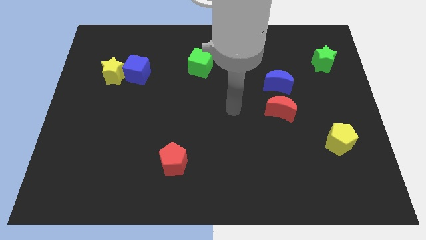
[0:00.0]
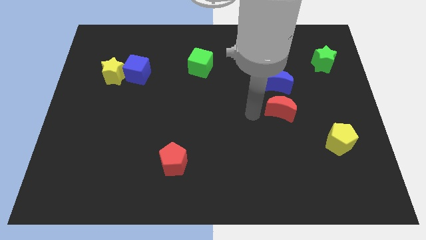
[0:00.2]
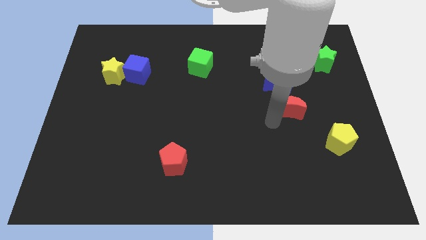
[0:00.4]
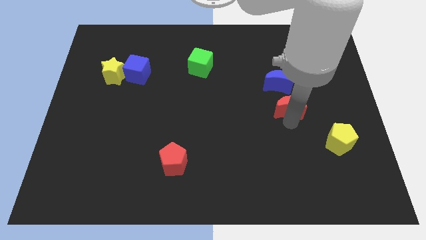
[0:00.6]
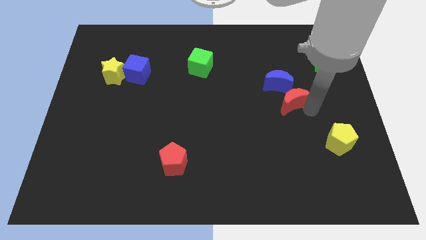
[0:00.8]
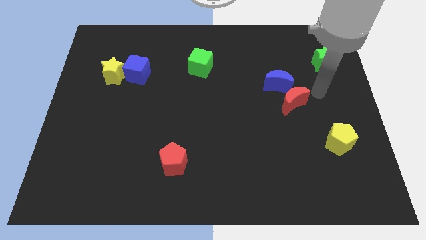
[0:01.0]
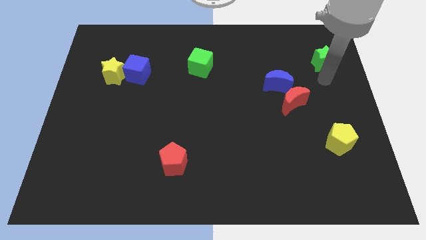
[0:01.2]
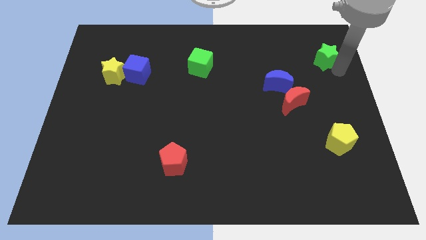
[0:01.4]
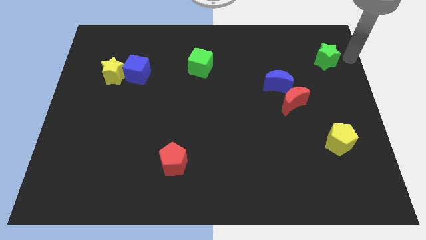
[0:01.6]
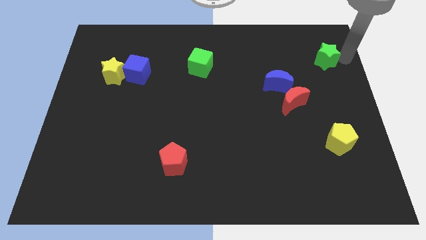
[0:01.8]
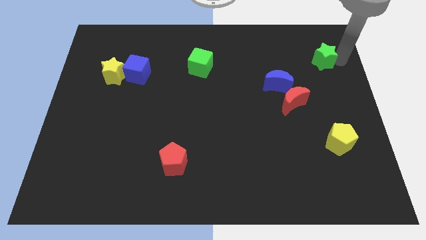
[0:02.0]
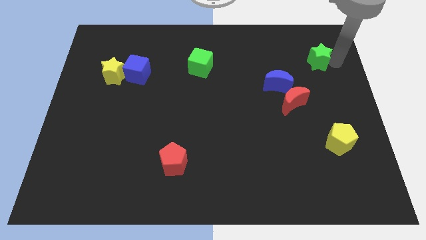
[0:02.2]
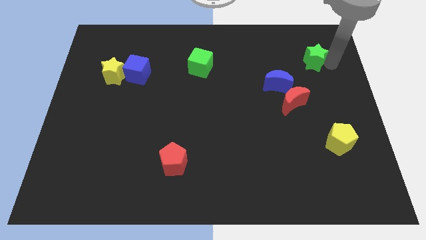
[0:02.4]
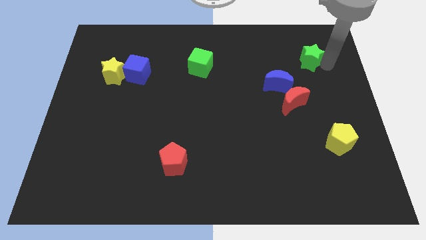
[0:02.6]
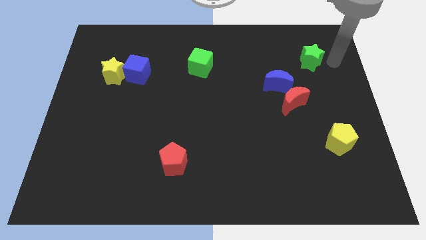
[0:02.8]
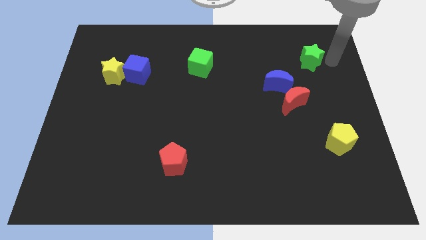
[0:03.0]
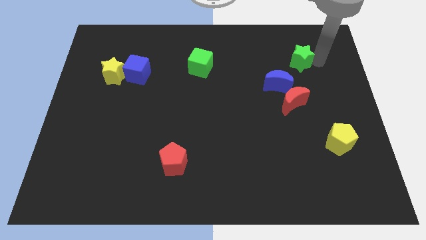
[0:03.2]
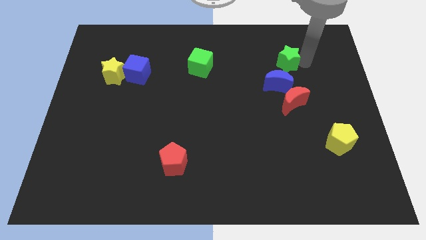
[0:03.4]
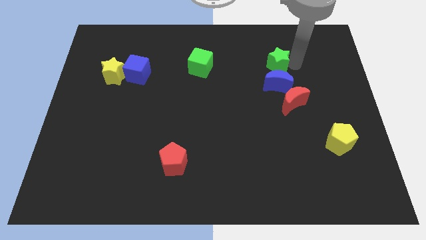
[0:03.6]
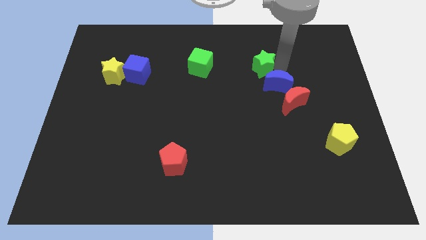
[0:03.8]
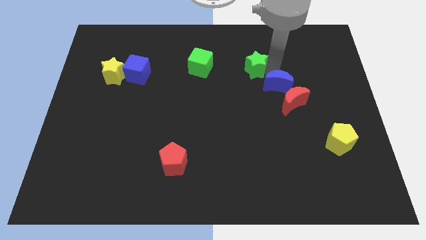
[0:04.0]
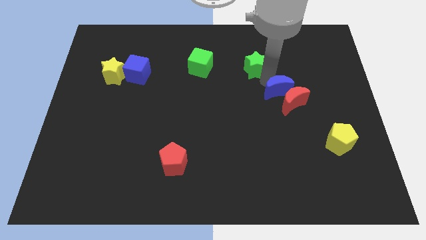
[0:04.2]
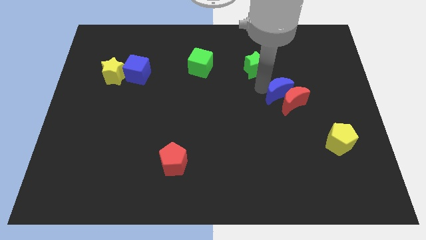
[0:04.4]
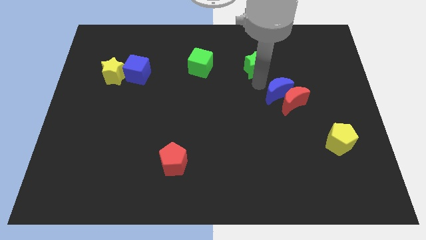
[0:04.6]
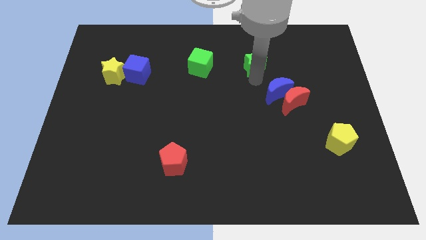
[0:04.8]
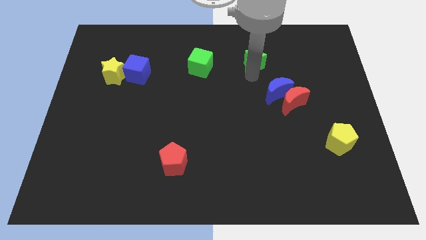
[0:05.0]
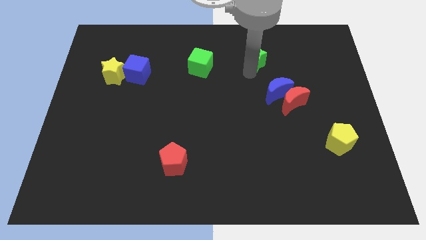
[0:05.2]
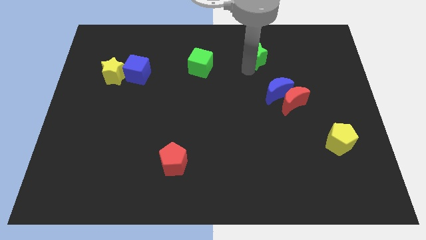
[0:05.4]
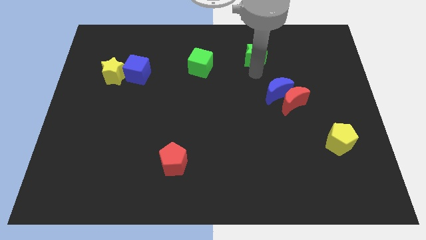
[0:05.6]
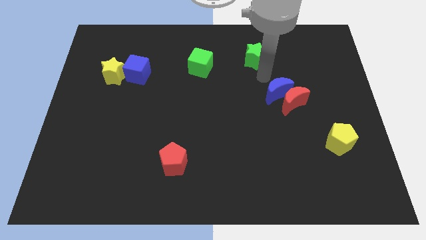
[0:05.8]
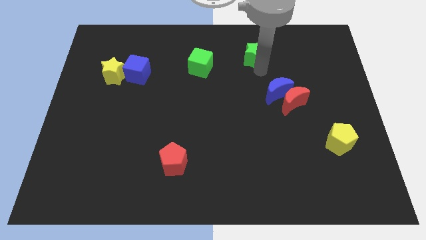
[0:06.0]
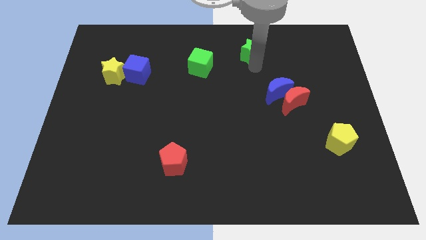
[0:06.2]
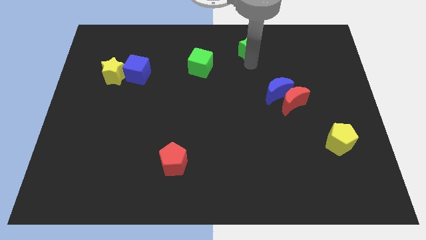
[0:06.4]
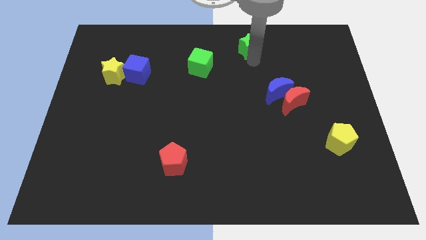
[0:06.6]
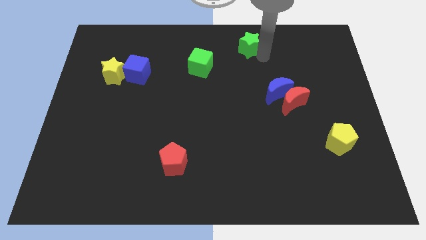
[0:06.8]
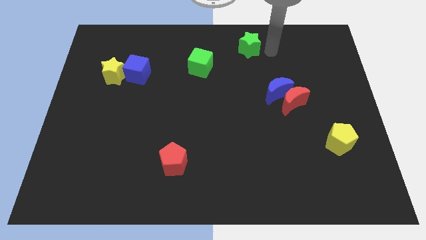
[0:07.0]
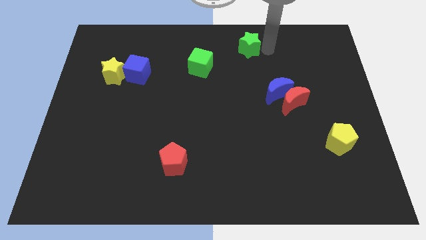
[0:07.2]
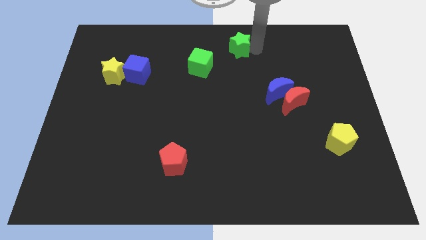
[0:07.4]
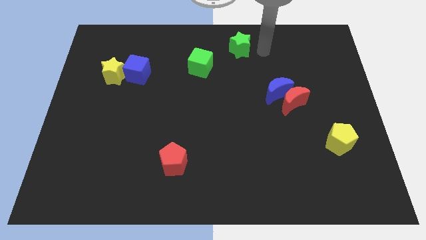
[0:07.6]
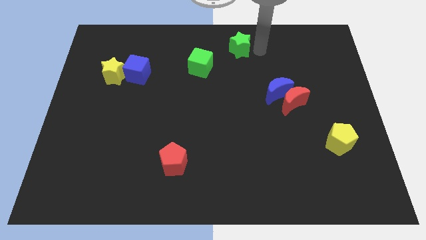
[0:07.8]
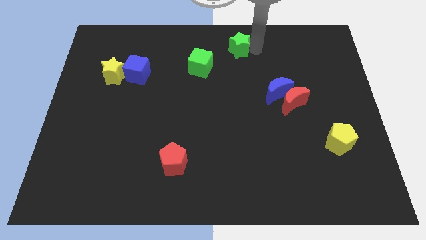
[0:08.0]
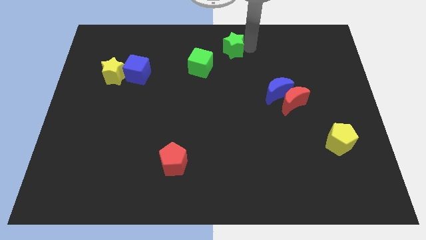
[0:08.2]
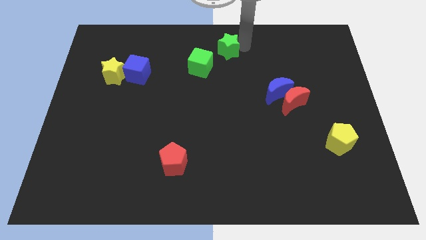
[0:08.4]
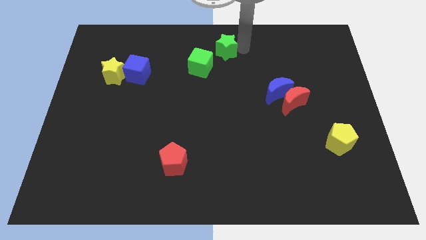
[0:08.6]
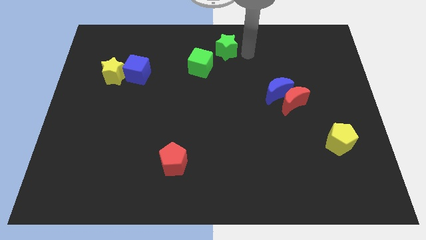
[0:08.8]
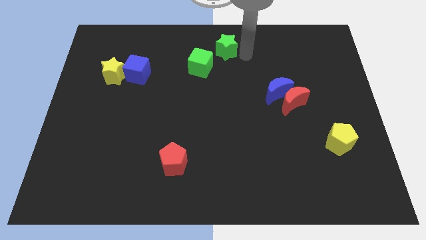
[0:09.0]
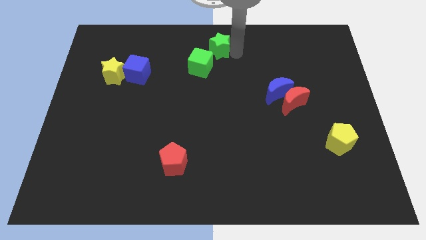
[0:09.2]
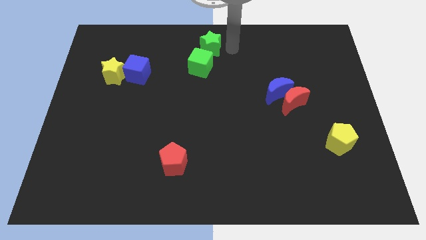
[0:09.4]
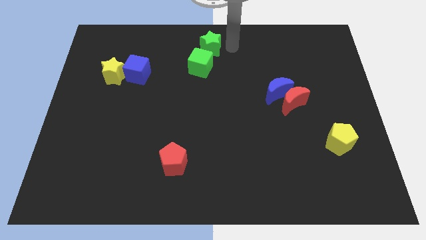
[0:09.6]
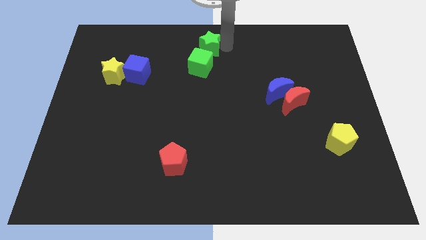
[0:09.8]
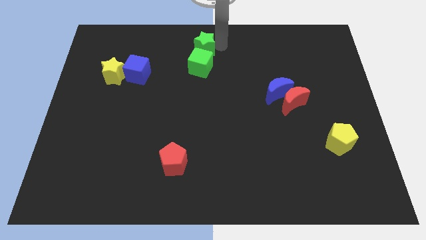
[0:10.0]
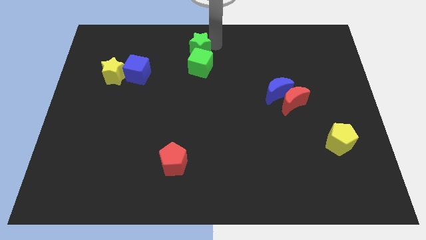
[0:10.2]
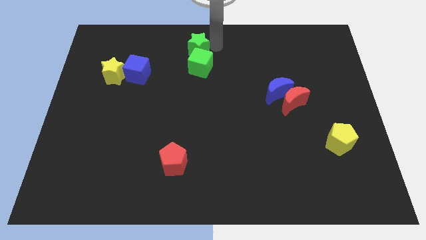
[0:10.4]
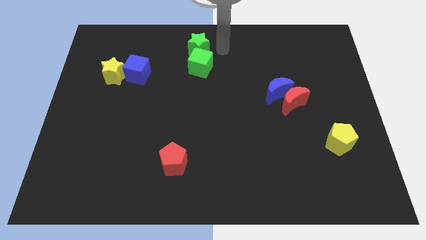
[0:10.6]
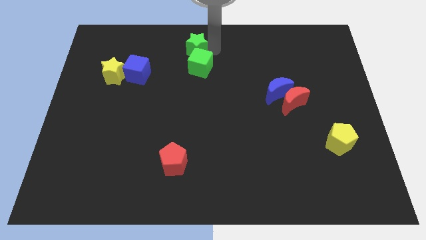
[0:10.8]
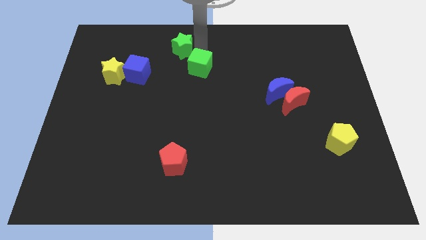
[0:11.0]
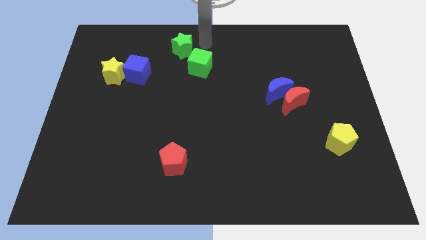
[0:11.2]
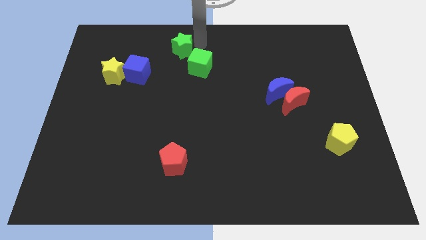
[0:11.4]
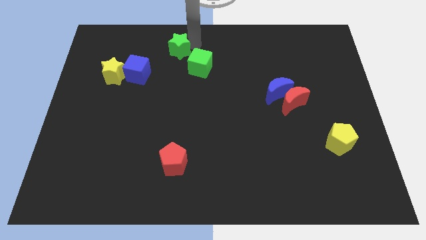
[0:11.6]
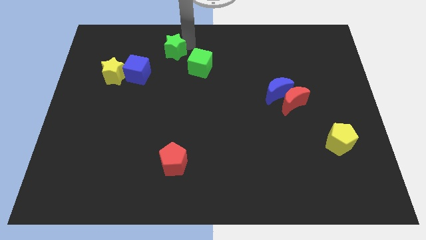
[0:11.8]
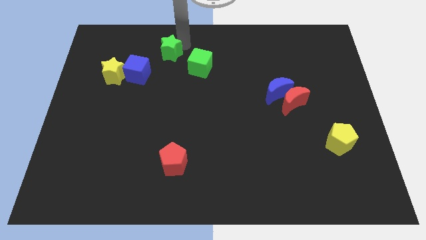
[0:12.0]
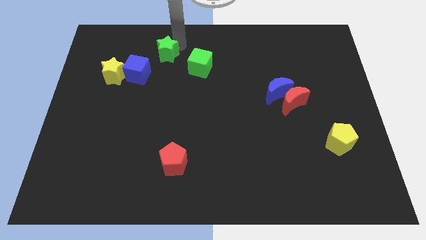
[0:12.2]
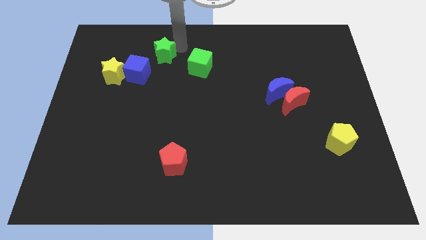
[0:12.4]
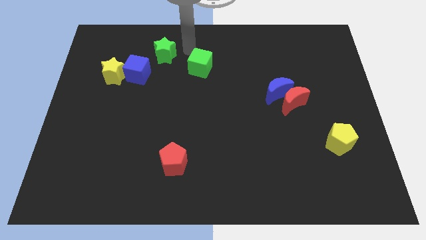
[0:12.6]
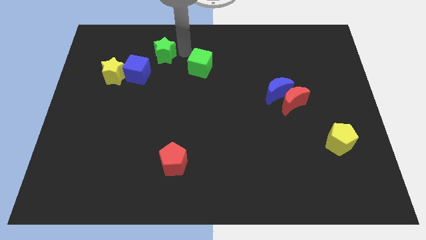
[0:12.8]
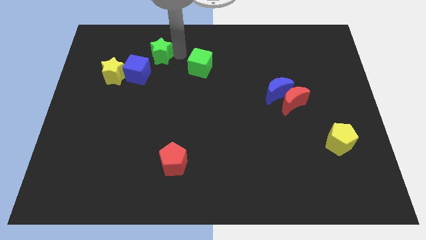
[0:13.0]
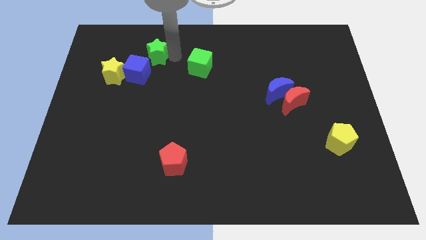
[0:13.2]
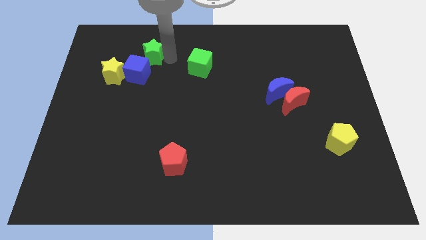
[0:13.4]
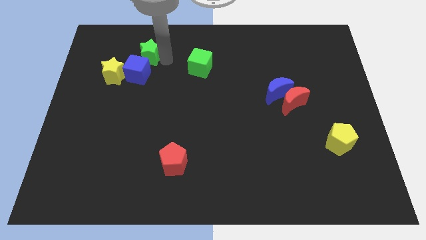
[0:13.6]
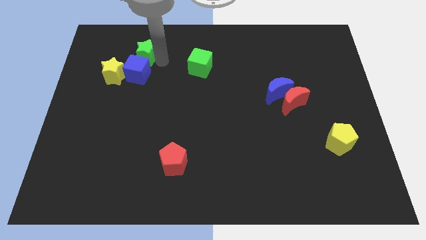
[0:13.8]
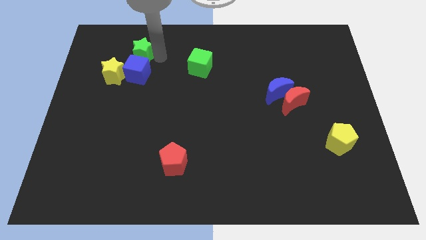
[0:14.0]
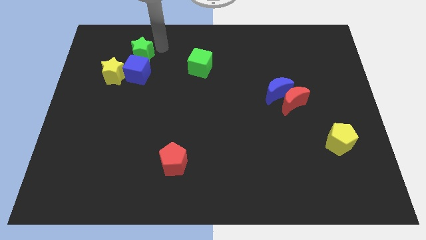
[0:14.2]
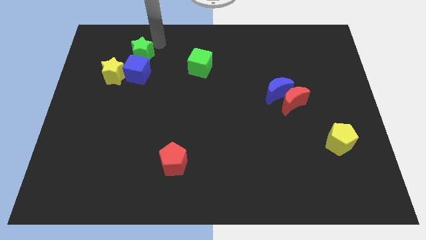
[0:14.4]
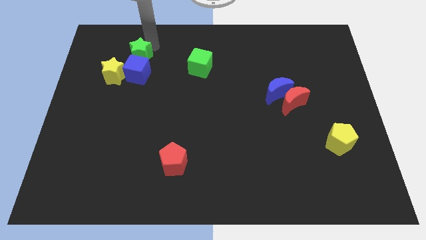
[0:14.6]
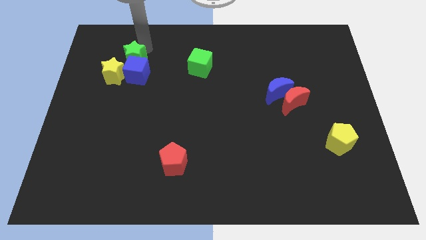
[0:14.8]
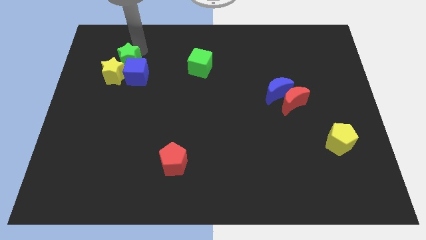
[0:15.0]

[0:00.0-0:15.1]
push the green star towards the yellow star

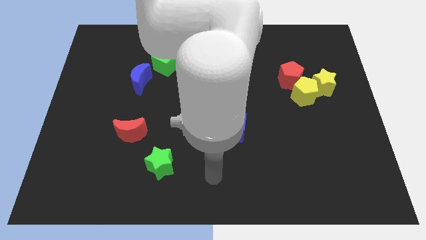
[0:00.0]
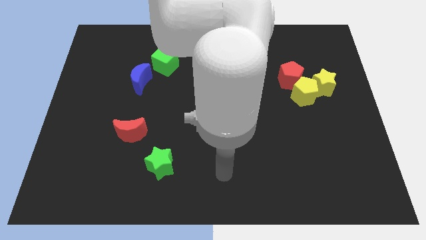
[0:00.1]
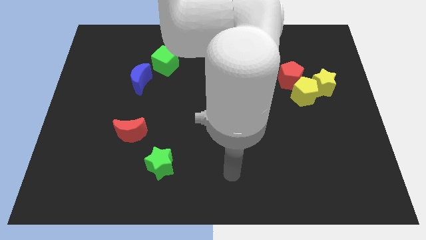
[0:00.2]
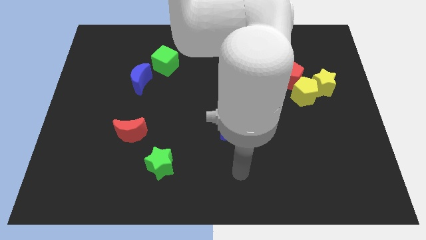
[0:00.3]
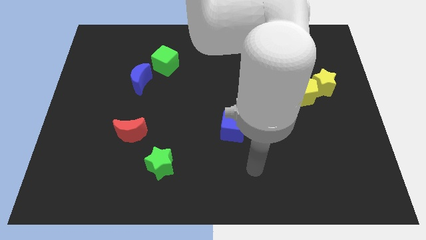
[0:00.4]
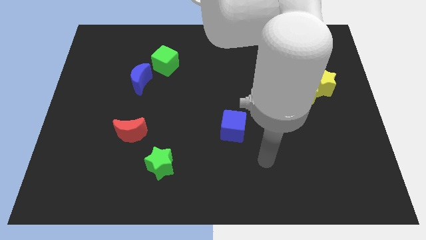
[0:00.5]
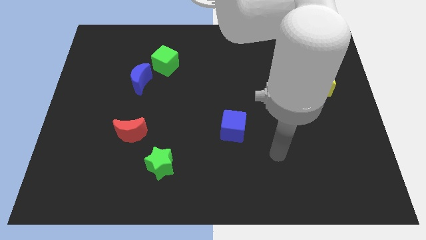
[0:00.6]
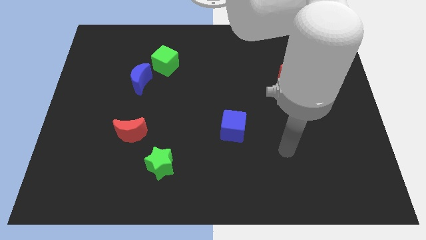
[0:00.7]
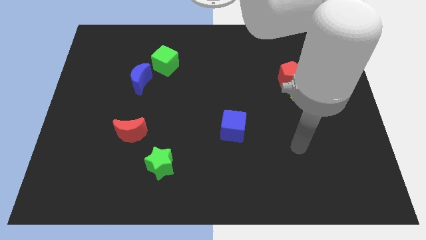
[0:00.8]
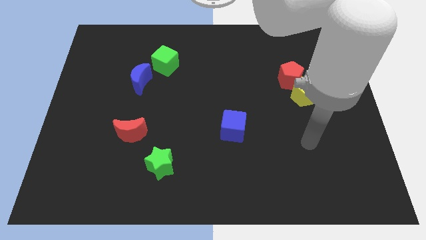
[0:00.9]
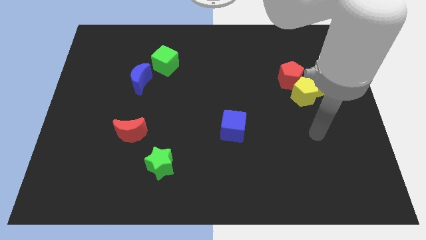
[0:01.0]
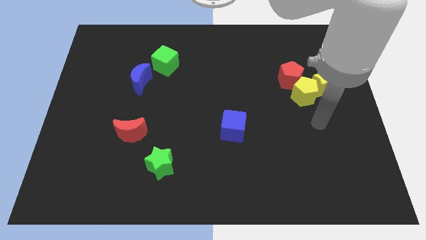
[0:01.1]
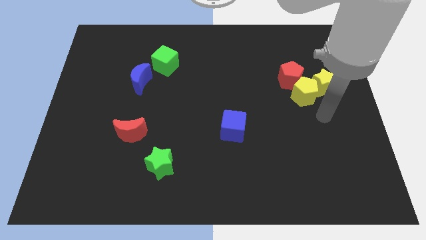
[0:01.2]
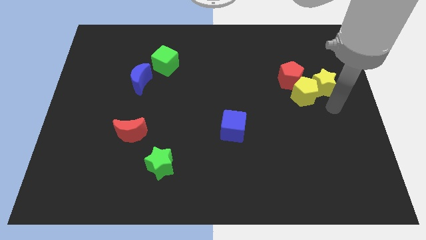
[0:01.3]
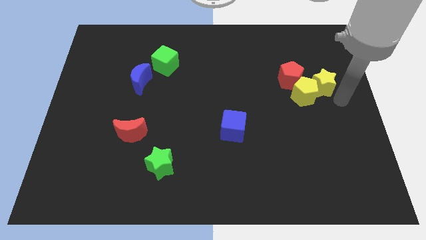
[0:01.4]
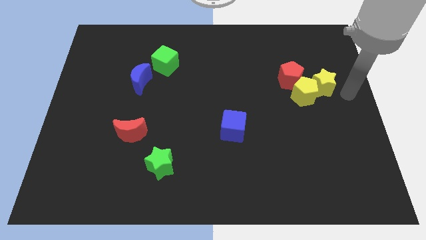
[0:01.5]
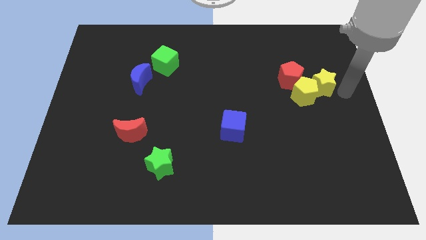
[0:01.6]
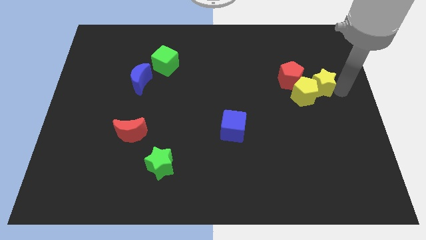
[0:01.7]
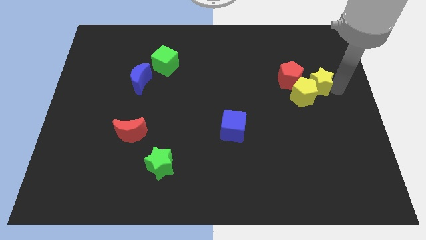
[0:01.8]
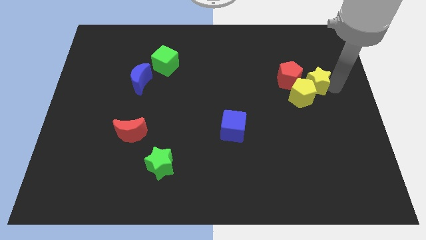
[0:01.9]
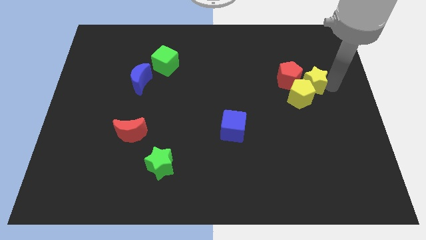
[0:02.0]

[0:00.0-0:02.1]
slide the yellow star next to the red pentagon
